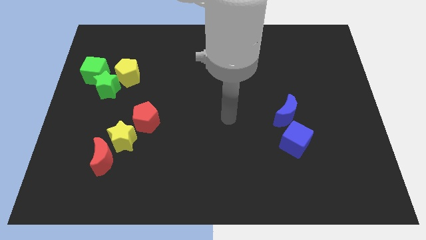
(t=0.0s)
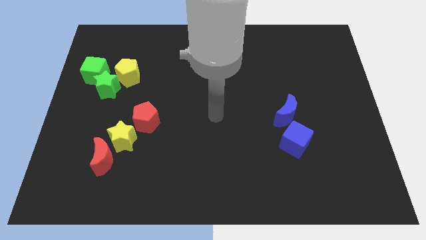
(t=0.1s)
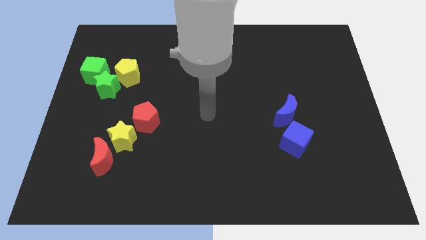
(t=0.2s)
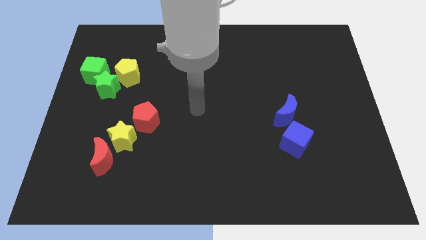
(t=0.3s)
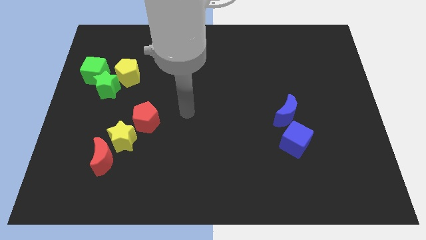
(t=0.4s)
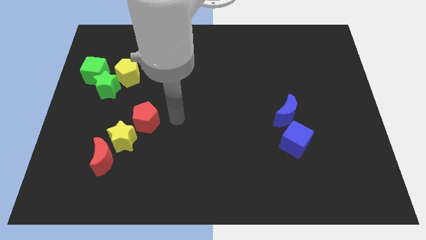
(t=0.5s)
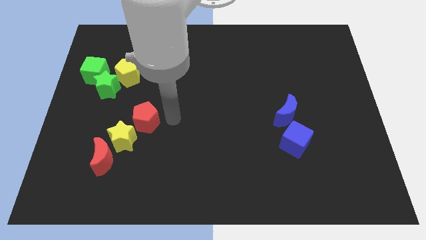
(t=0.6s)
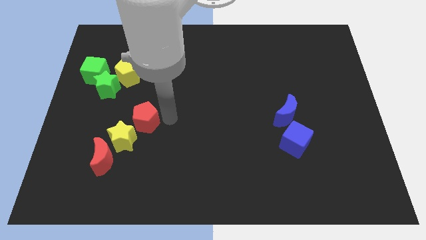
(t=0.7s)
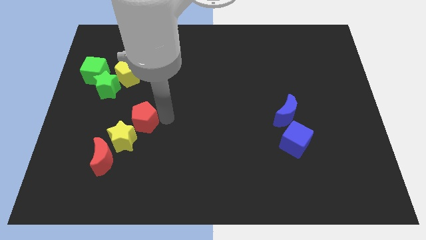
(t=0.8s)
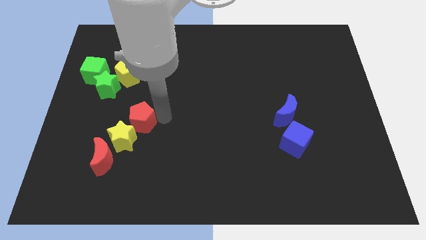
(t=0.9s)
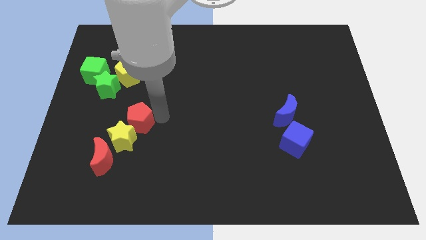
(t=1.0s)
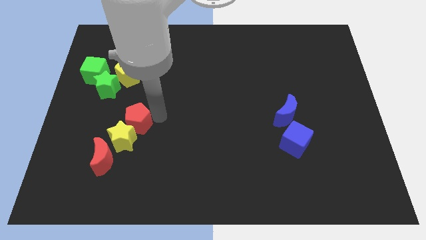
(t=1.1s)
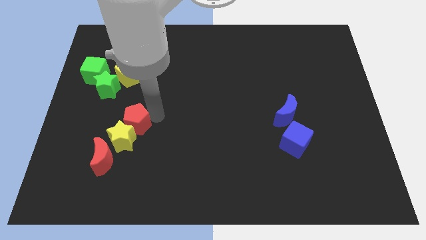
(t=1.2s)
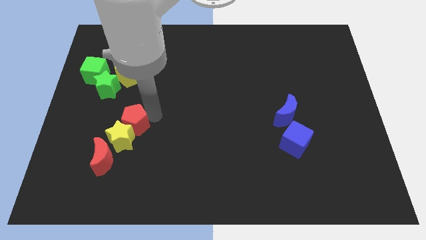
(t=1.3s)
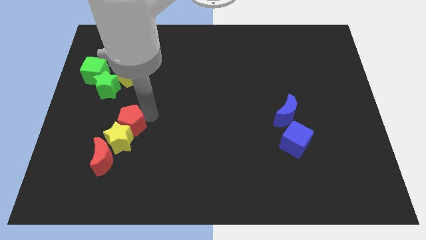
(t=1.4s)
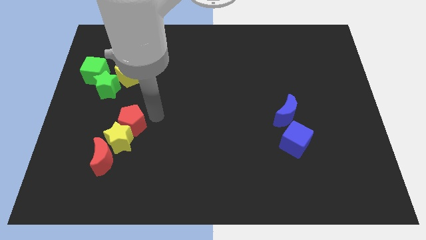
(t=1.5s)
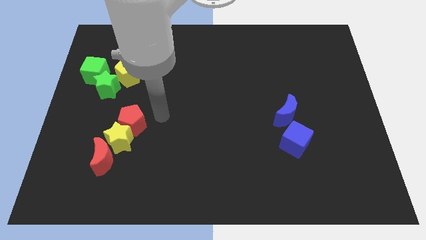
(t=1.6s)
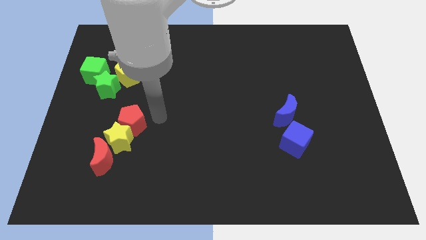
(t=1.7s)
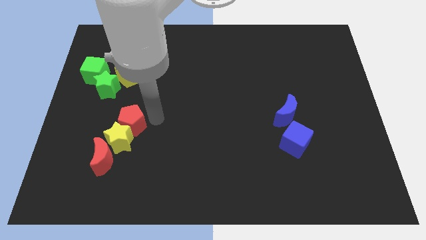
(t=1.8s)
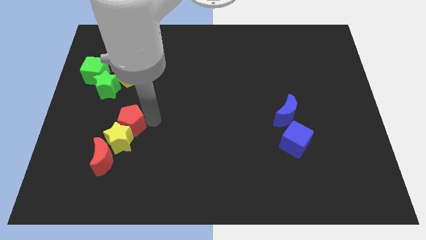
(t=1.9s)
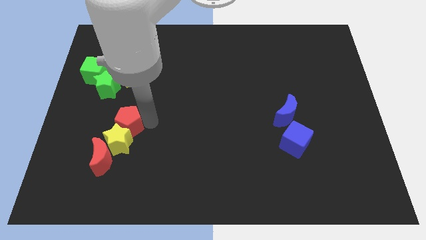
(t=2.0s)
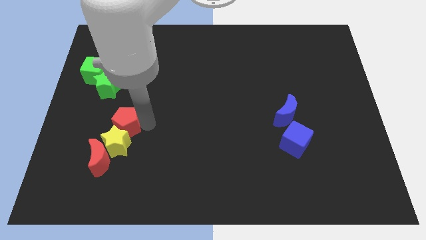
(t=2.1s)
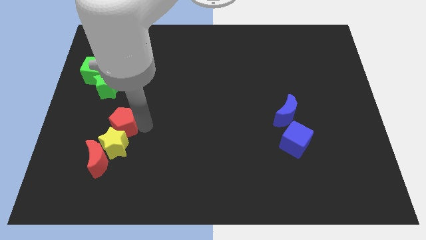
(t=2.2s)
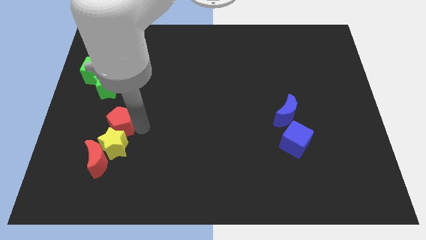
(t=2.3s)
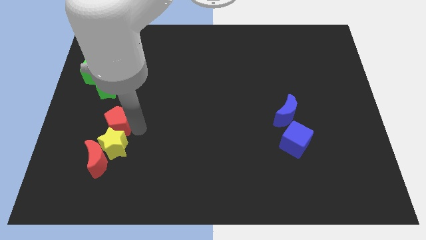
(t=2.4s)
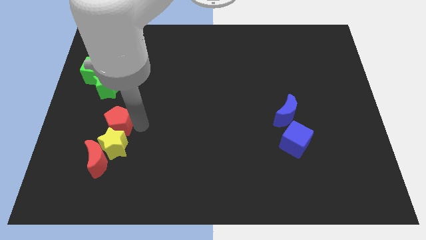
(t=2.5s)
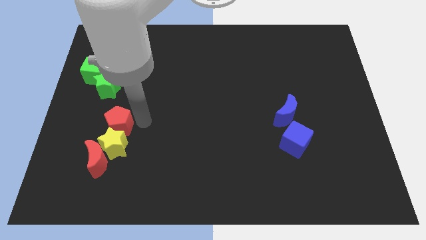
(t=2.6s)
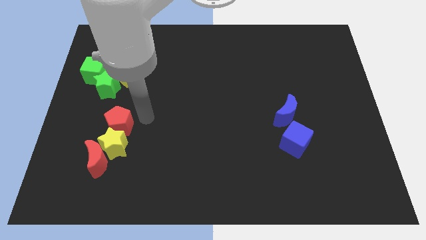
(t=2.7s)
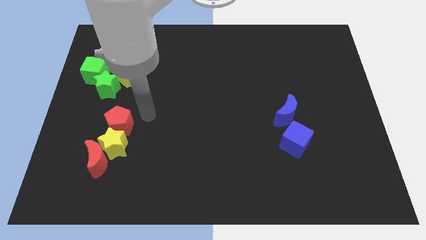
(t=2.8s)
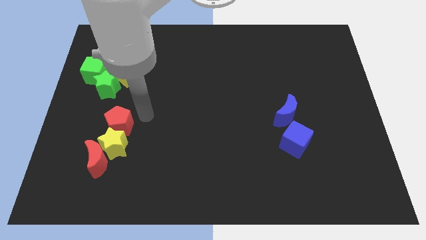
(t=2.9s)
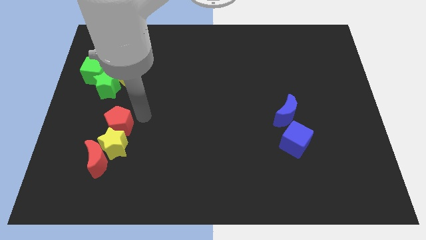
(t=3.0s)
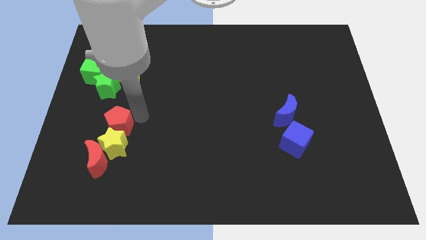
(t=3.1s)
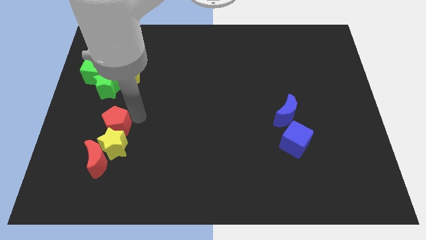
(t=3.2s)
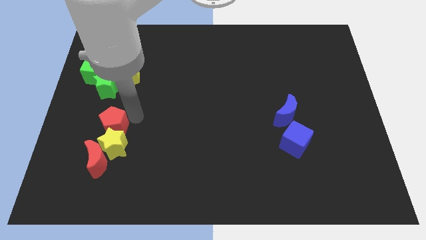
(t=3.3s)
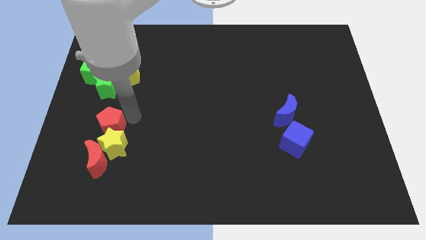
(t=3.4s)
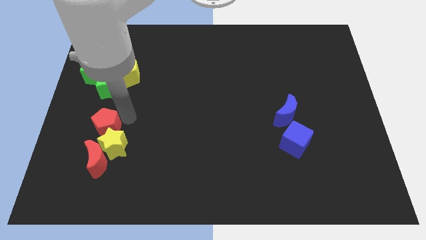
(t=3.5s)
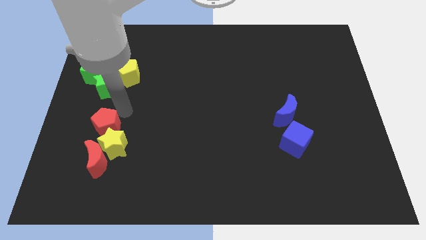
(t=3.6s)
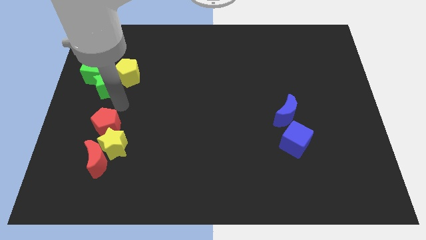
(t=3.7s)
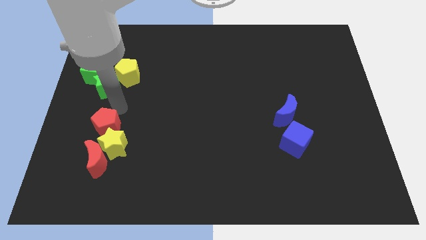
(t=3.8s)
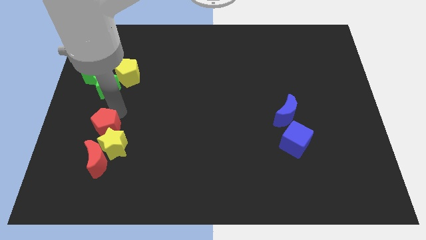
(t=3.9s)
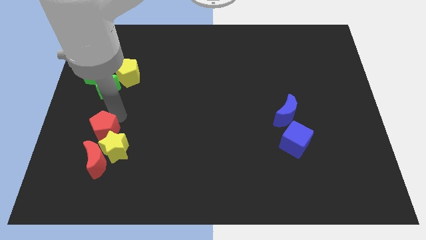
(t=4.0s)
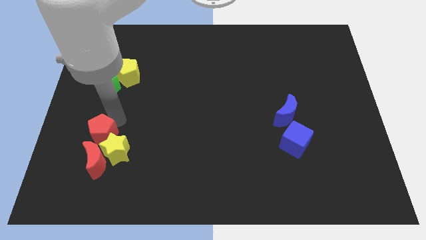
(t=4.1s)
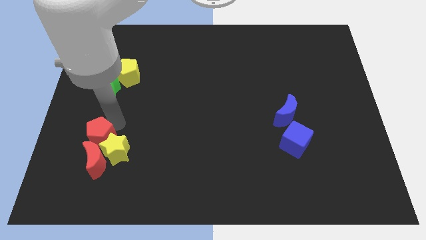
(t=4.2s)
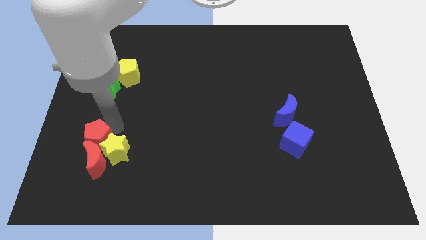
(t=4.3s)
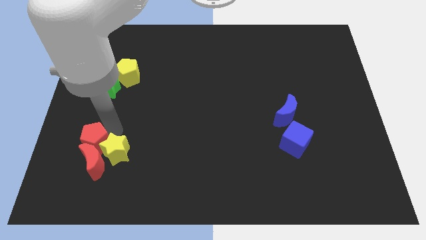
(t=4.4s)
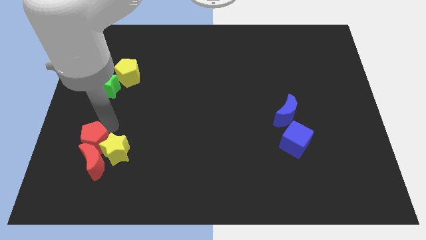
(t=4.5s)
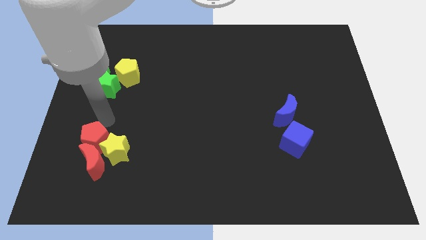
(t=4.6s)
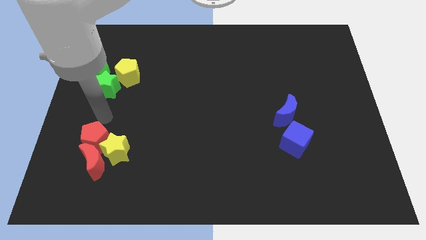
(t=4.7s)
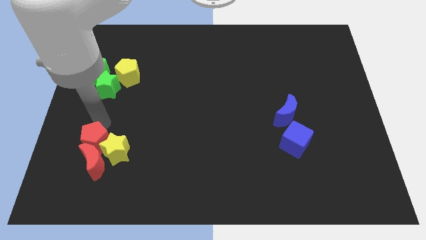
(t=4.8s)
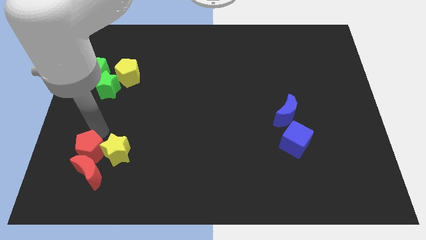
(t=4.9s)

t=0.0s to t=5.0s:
slide the red pentagon to the bottom left of the yellow star

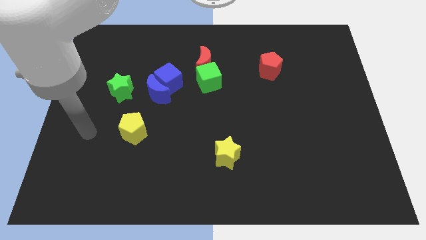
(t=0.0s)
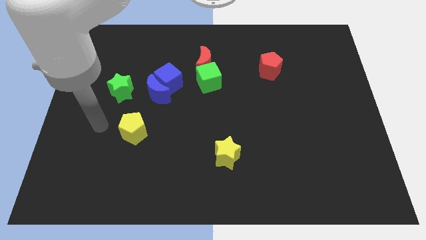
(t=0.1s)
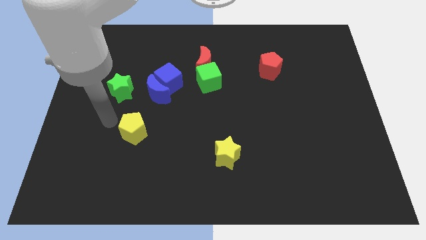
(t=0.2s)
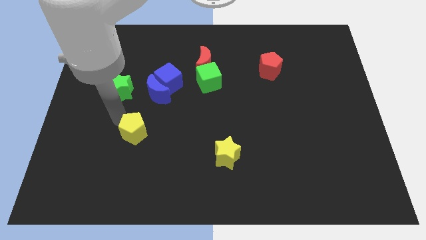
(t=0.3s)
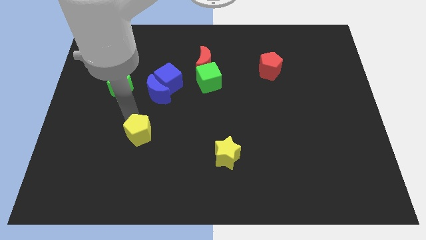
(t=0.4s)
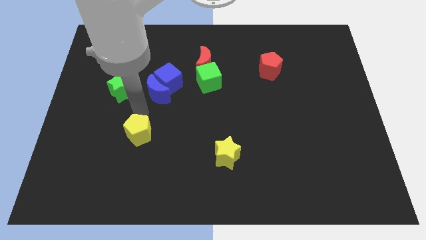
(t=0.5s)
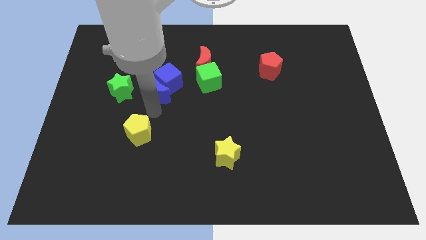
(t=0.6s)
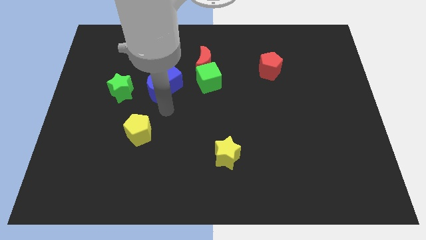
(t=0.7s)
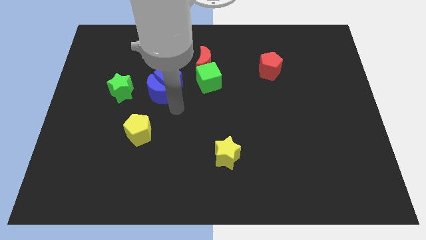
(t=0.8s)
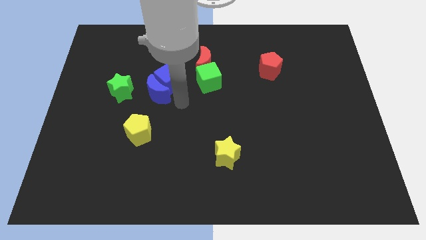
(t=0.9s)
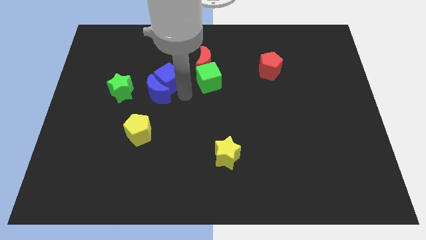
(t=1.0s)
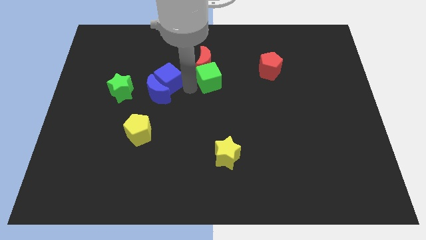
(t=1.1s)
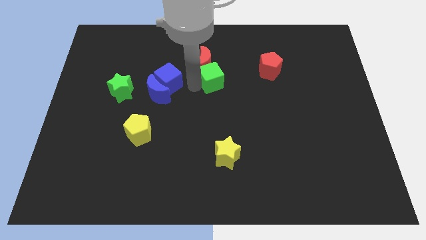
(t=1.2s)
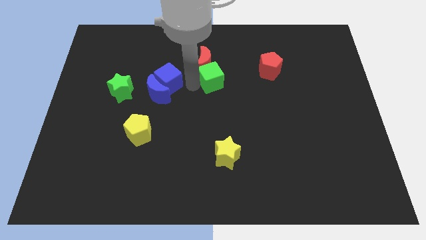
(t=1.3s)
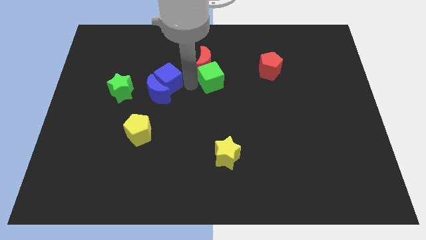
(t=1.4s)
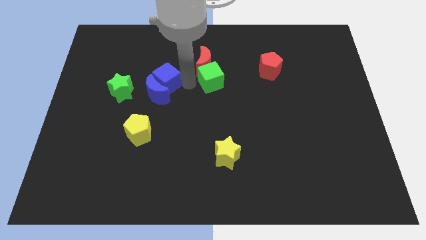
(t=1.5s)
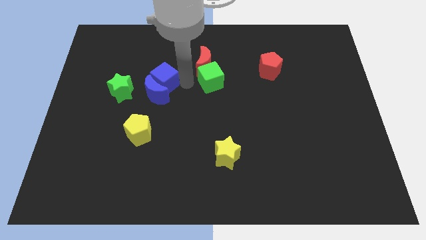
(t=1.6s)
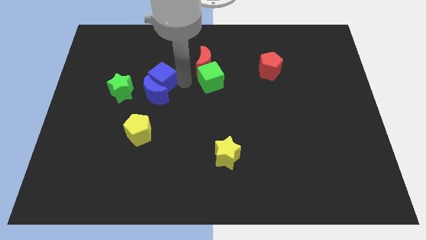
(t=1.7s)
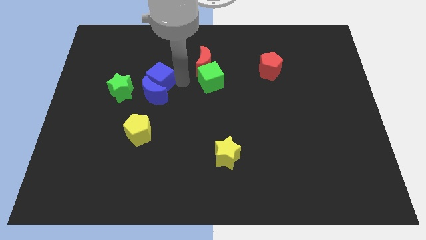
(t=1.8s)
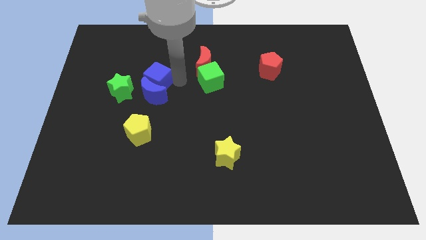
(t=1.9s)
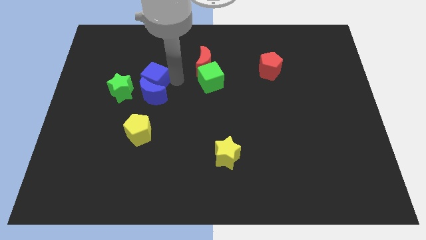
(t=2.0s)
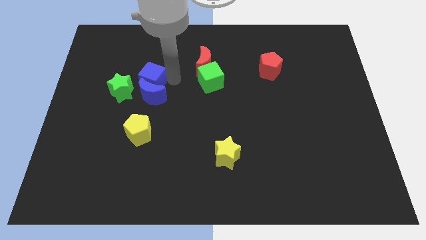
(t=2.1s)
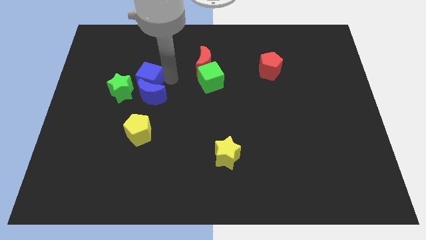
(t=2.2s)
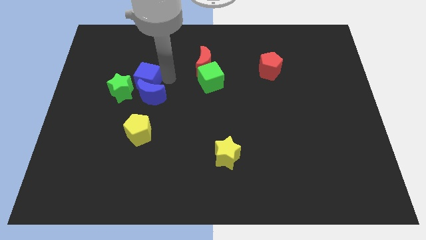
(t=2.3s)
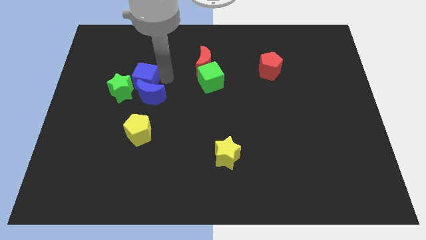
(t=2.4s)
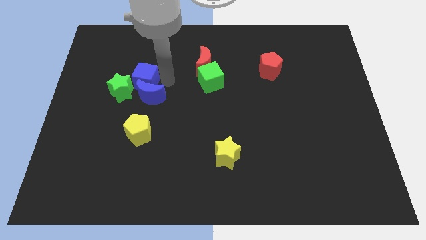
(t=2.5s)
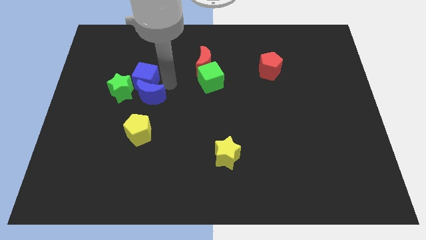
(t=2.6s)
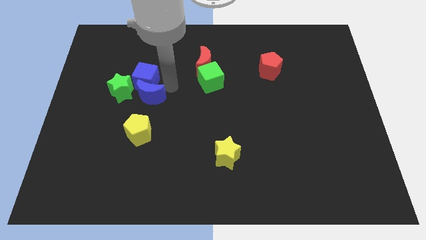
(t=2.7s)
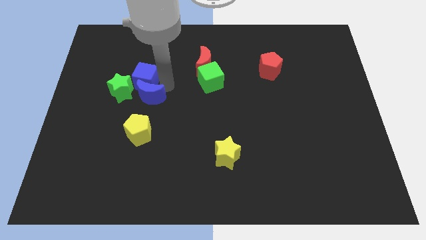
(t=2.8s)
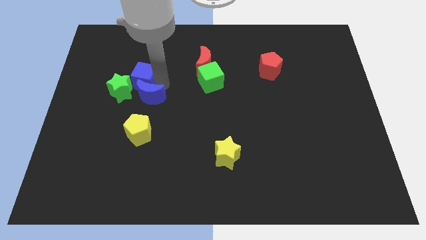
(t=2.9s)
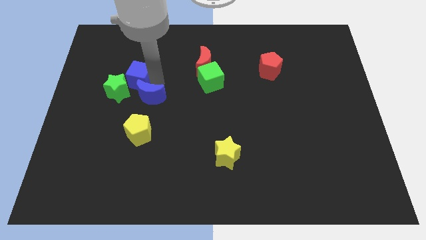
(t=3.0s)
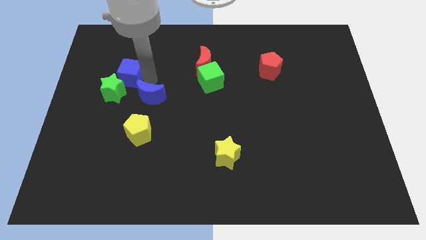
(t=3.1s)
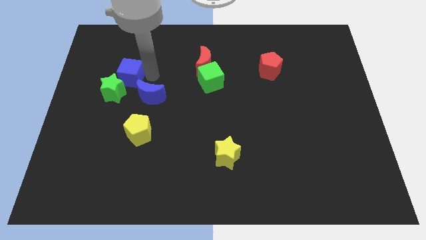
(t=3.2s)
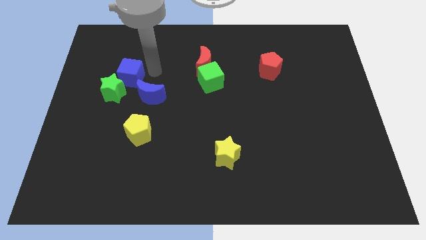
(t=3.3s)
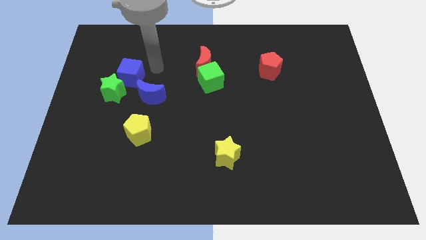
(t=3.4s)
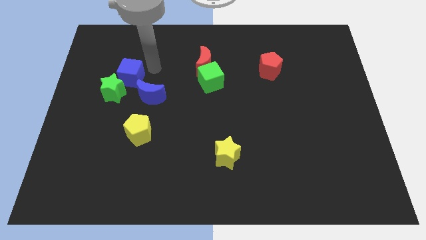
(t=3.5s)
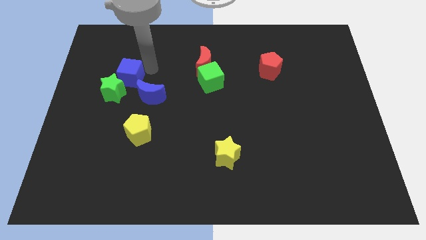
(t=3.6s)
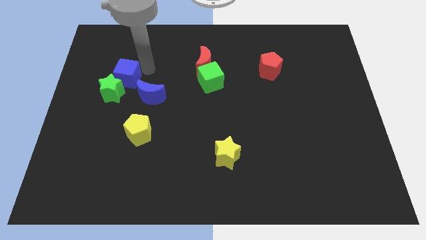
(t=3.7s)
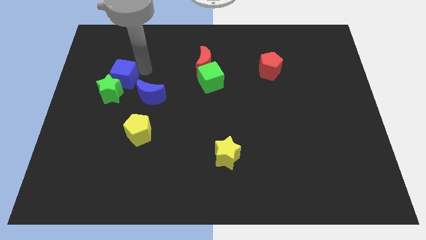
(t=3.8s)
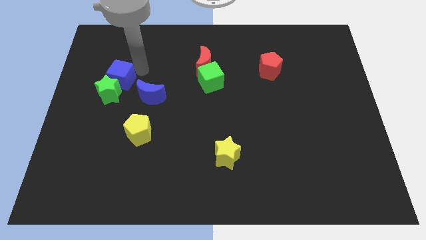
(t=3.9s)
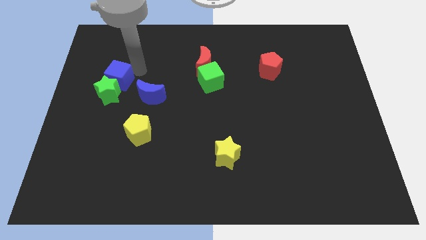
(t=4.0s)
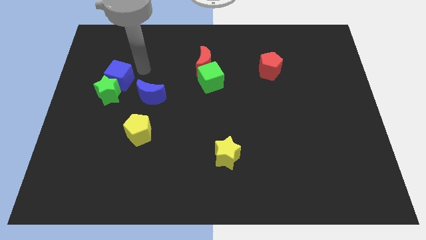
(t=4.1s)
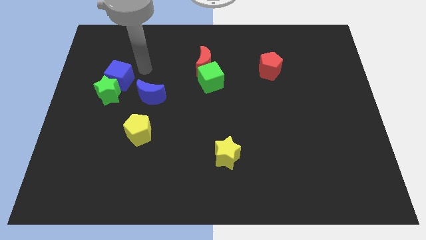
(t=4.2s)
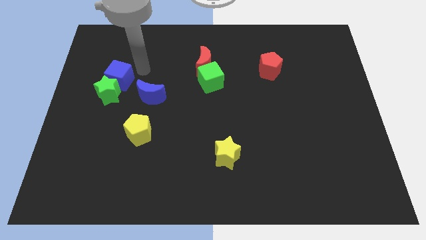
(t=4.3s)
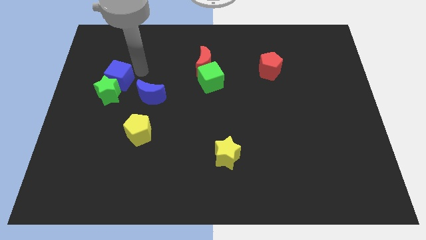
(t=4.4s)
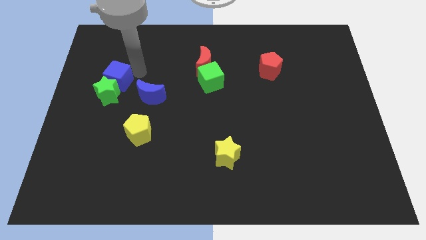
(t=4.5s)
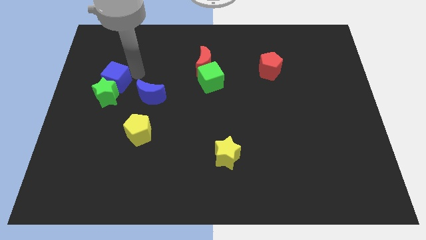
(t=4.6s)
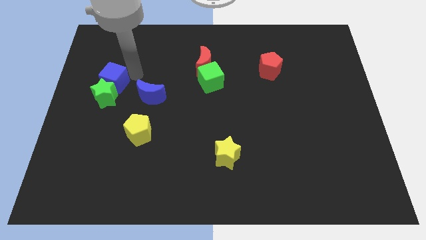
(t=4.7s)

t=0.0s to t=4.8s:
slide the blue cube left of the blue moon
